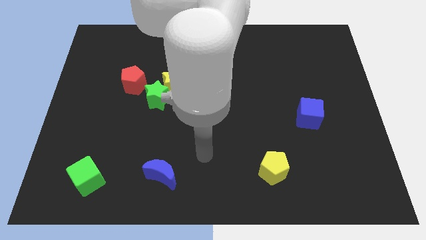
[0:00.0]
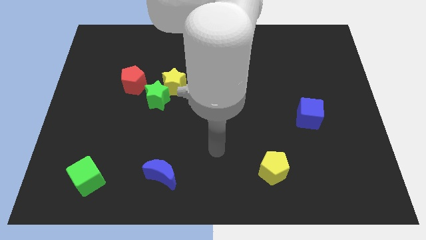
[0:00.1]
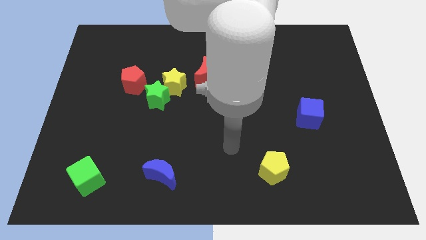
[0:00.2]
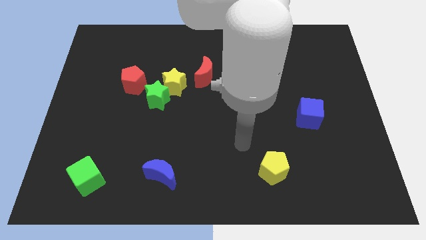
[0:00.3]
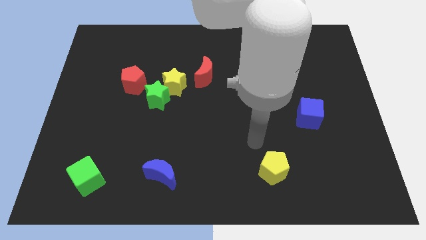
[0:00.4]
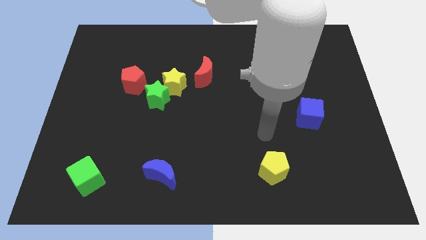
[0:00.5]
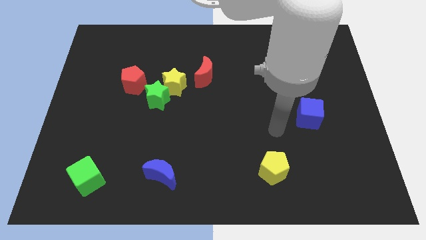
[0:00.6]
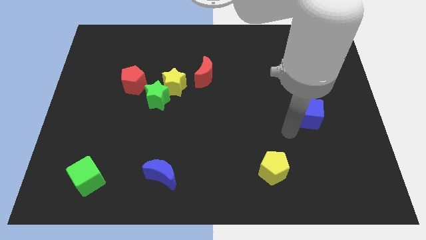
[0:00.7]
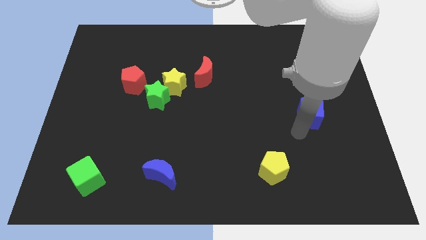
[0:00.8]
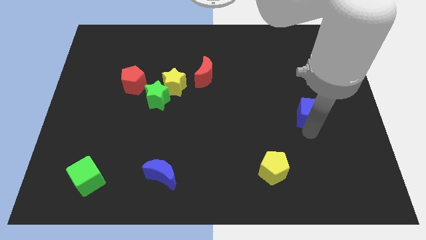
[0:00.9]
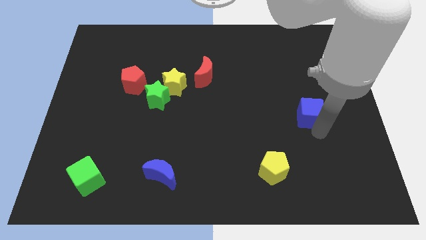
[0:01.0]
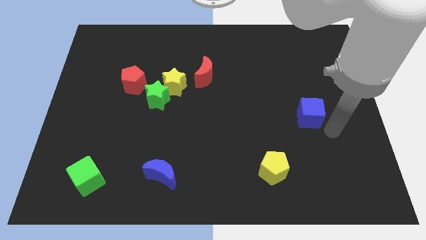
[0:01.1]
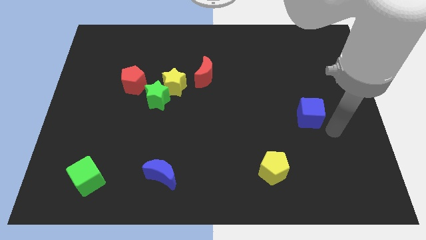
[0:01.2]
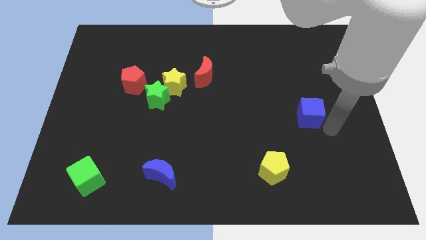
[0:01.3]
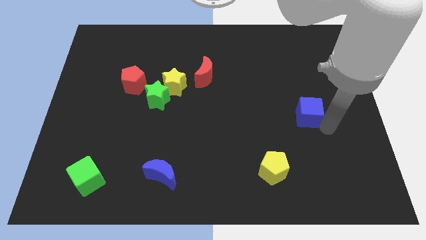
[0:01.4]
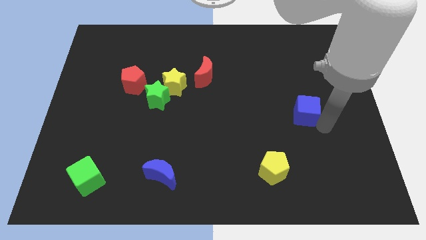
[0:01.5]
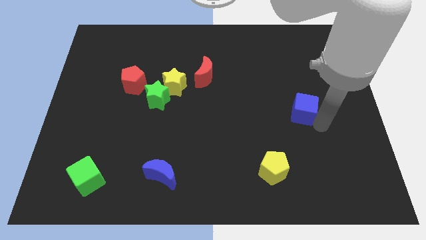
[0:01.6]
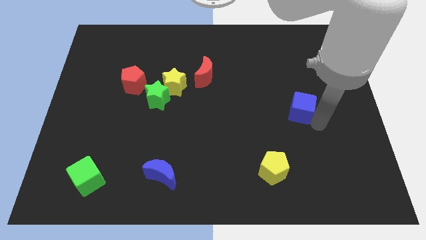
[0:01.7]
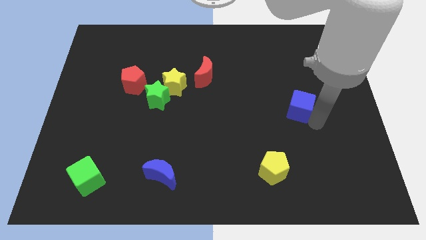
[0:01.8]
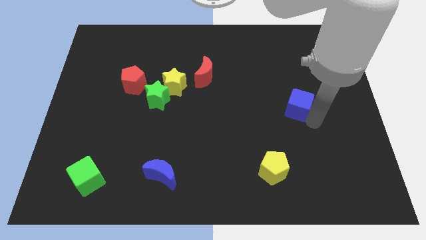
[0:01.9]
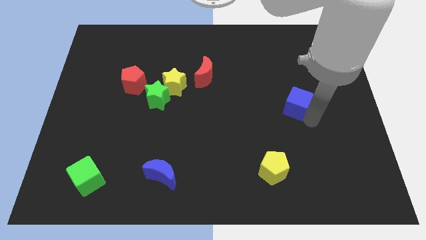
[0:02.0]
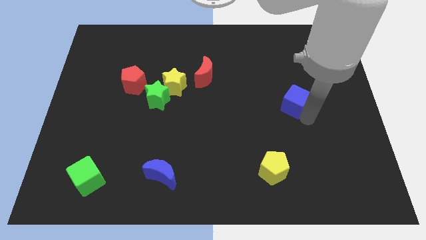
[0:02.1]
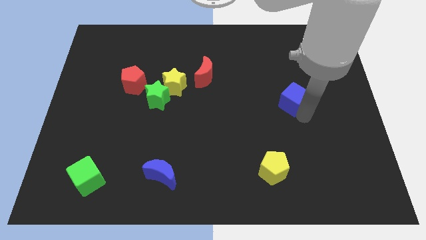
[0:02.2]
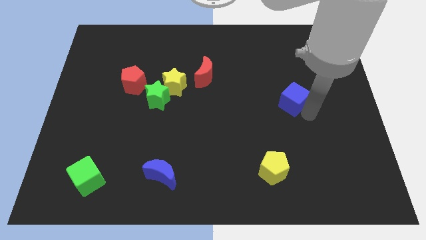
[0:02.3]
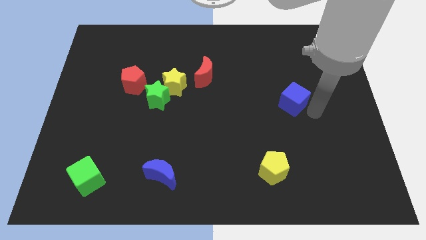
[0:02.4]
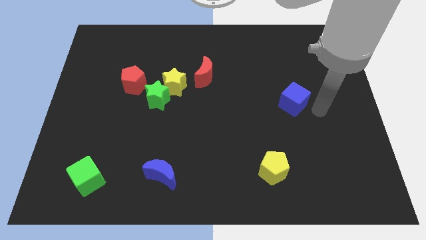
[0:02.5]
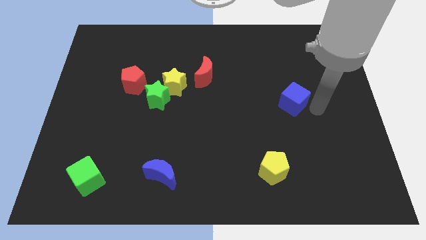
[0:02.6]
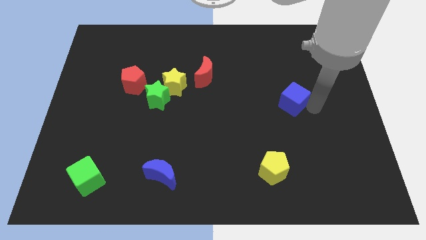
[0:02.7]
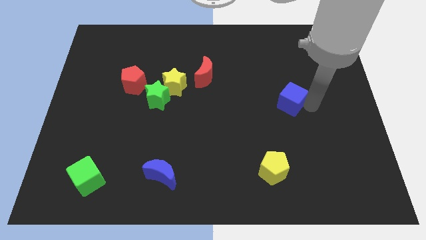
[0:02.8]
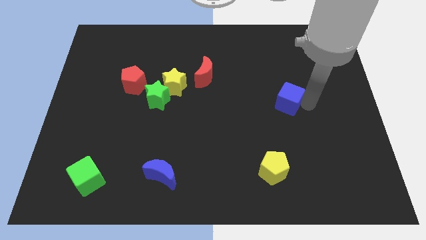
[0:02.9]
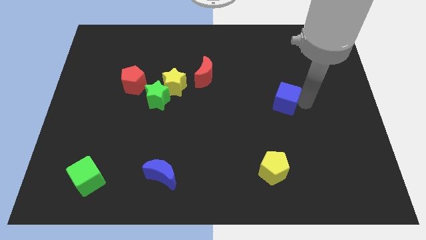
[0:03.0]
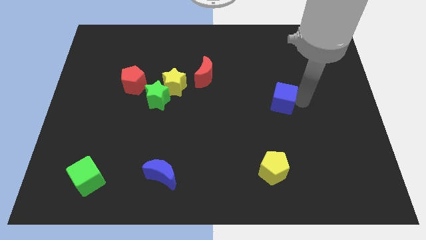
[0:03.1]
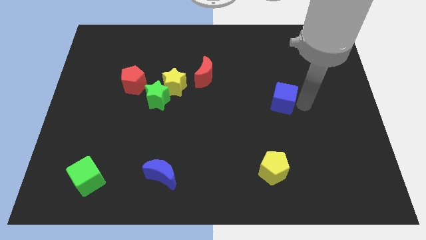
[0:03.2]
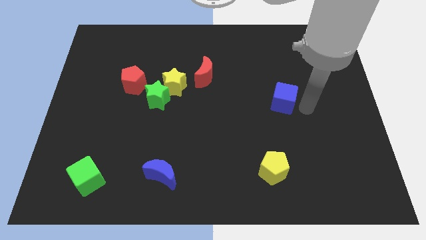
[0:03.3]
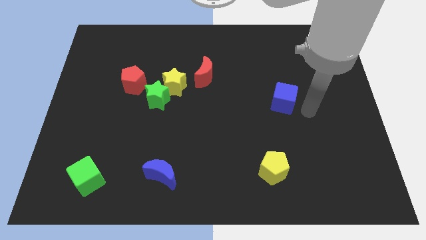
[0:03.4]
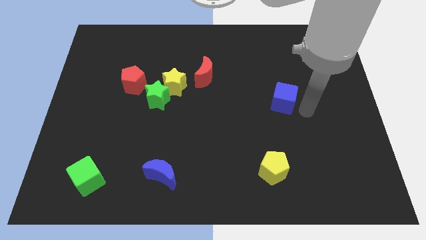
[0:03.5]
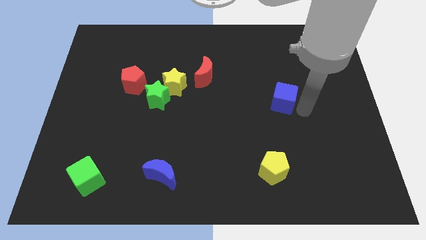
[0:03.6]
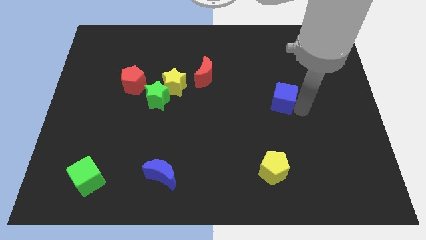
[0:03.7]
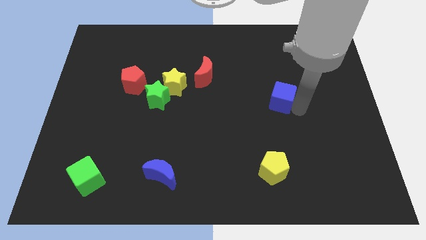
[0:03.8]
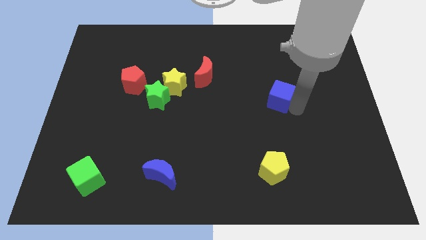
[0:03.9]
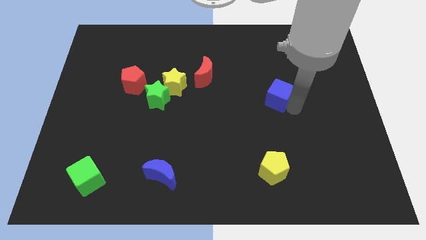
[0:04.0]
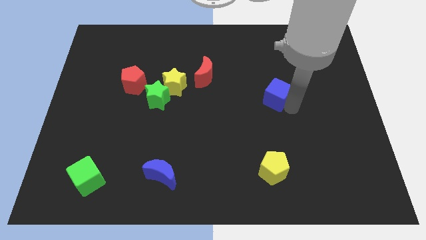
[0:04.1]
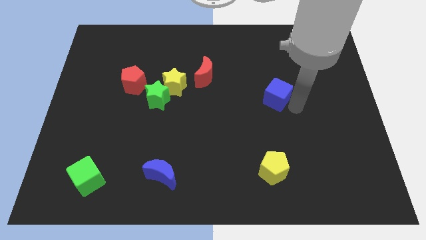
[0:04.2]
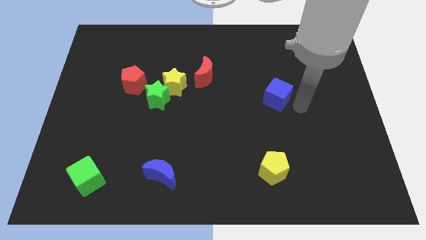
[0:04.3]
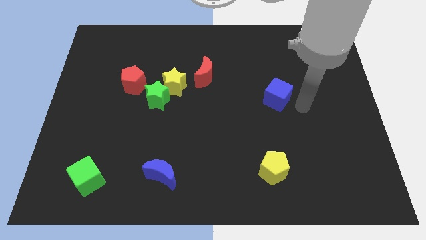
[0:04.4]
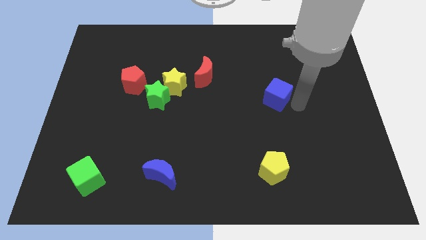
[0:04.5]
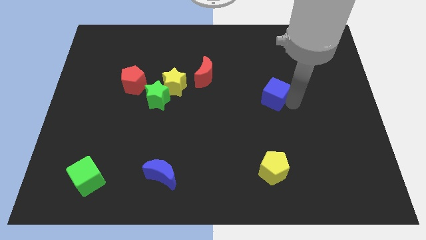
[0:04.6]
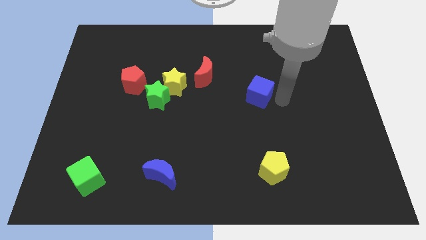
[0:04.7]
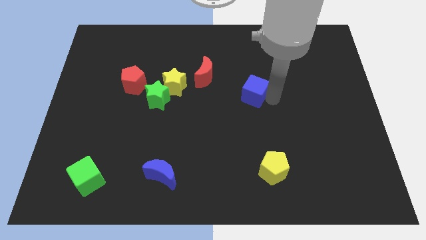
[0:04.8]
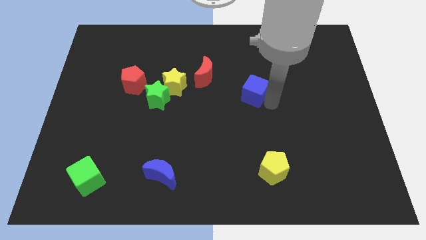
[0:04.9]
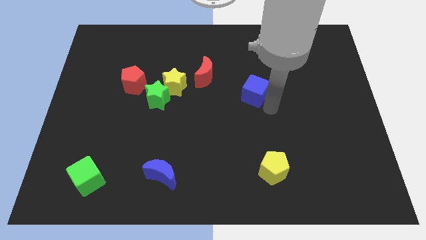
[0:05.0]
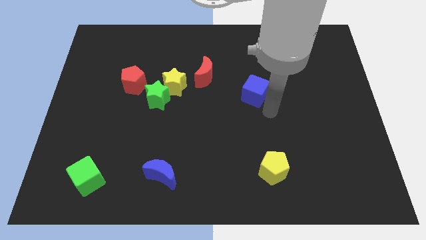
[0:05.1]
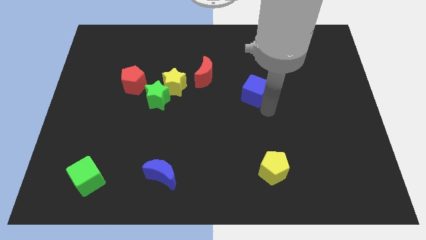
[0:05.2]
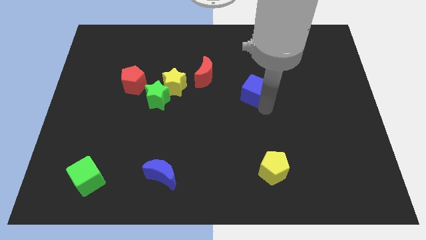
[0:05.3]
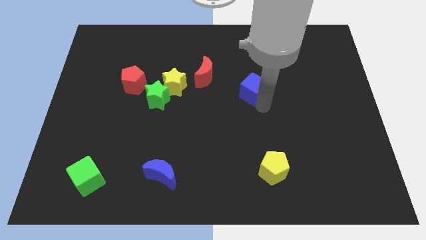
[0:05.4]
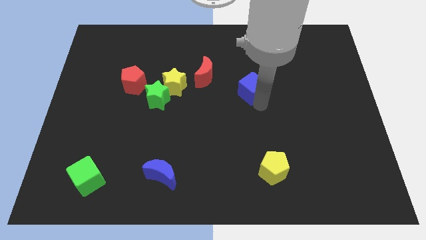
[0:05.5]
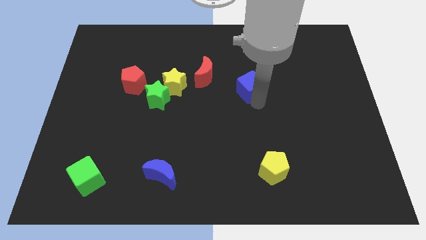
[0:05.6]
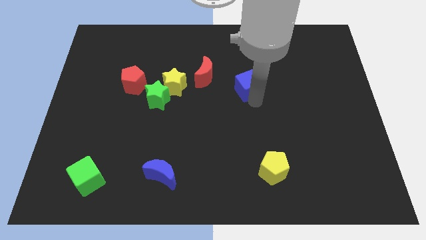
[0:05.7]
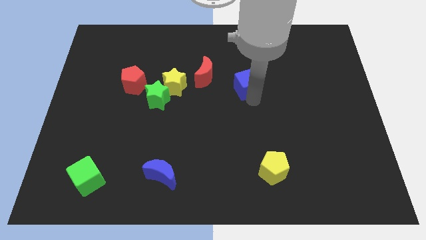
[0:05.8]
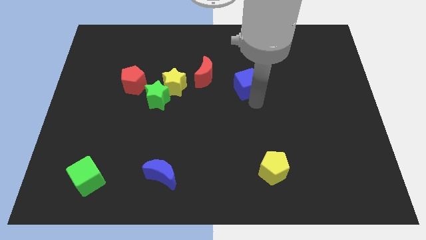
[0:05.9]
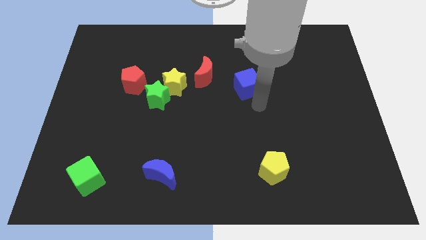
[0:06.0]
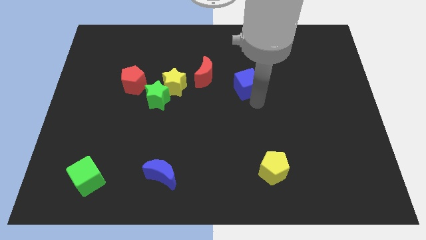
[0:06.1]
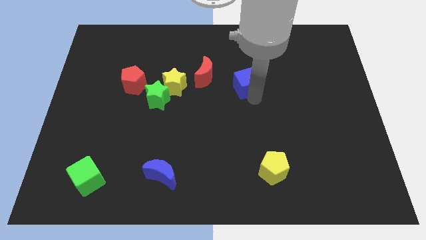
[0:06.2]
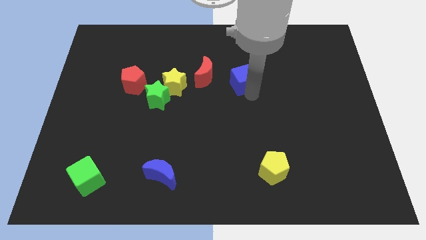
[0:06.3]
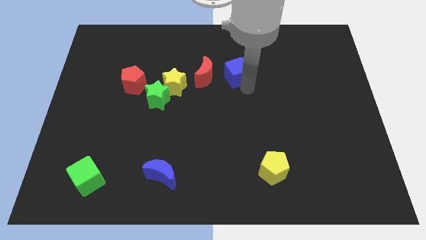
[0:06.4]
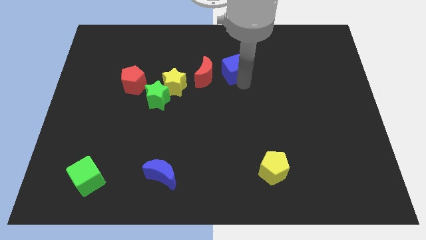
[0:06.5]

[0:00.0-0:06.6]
move the blue cube to the top right of the red moon

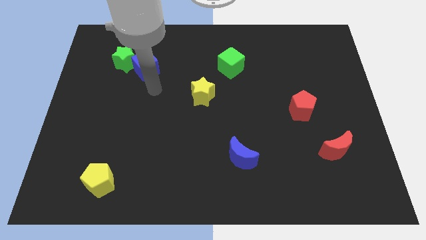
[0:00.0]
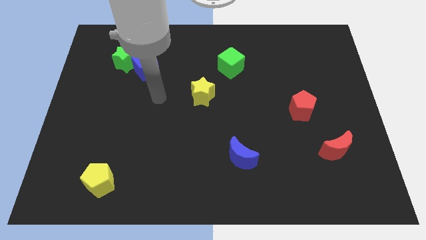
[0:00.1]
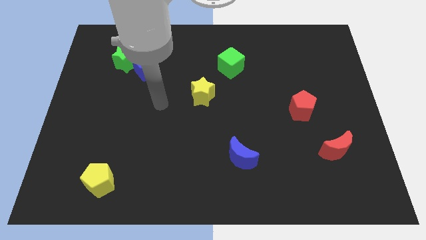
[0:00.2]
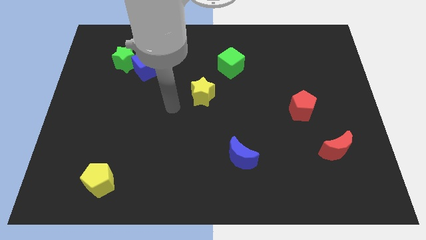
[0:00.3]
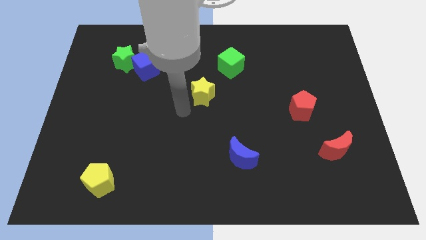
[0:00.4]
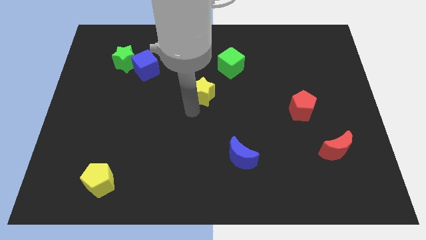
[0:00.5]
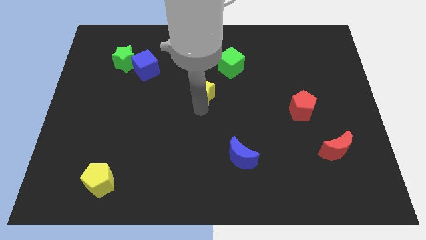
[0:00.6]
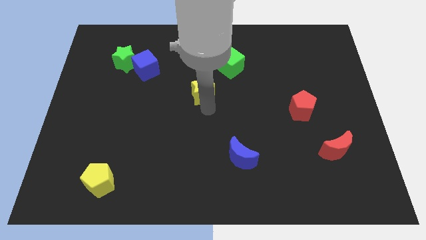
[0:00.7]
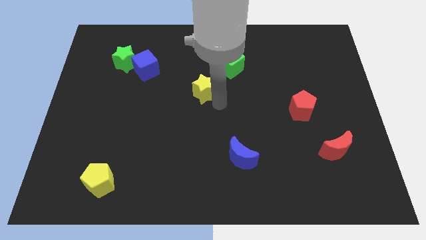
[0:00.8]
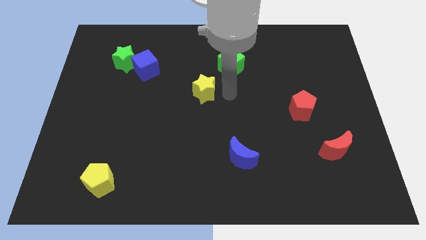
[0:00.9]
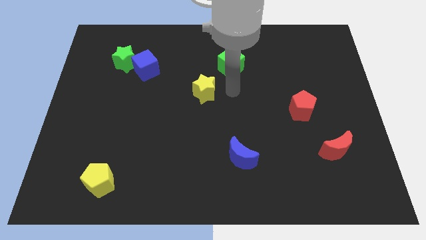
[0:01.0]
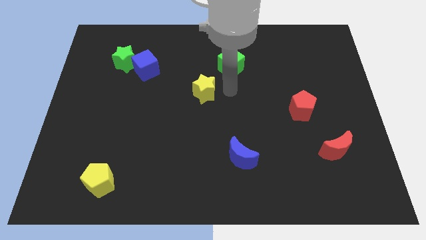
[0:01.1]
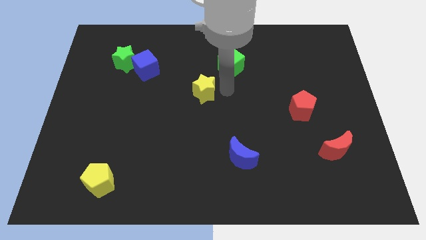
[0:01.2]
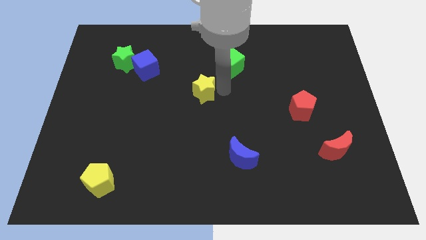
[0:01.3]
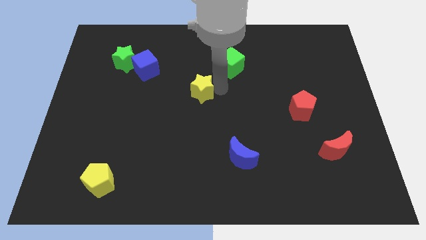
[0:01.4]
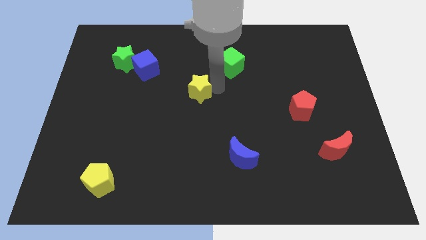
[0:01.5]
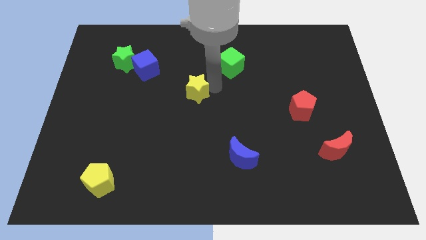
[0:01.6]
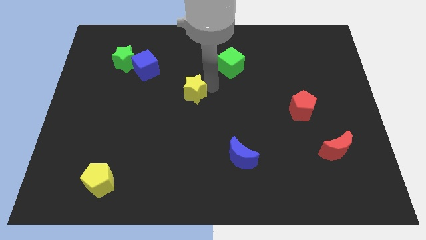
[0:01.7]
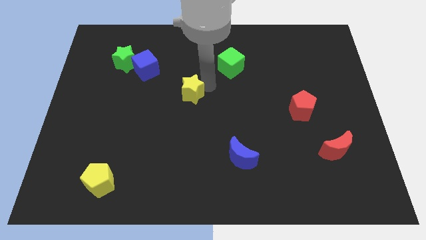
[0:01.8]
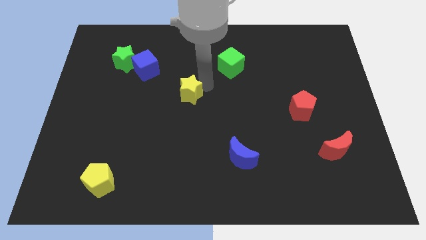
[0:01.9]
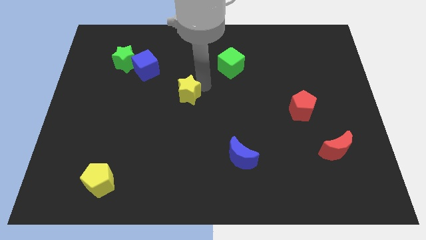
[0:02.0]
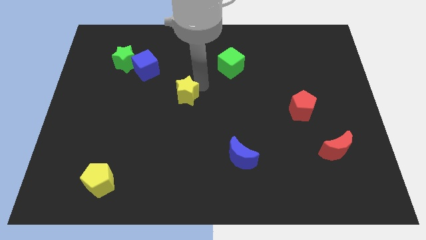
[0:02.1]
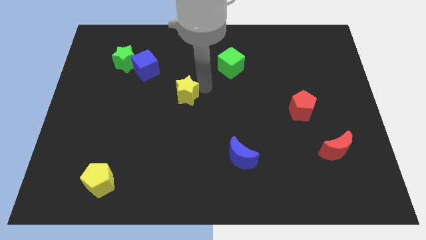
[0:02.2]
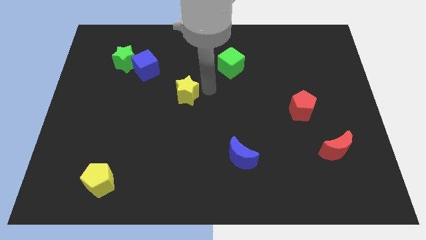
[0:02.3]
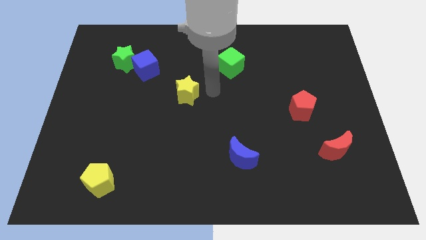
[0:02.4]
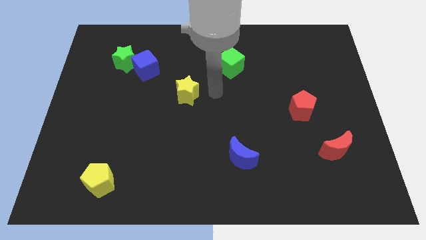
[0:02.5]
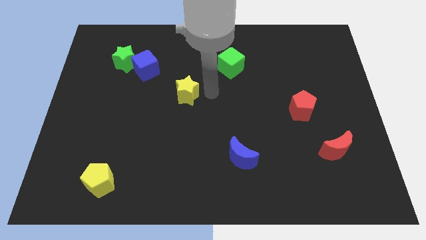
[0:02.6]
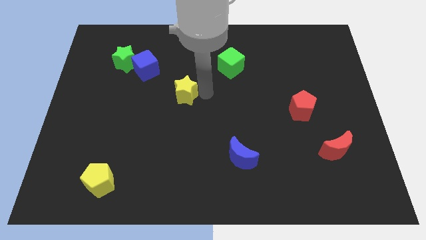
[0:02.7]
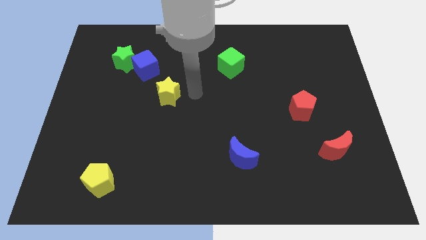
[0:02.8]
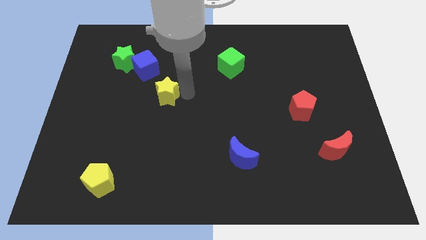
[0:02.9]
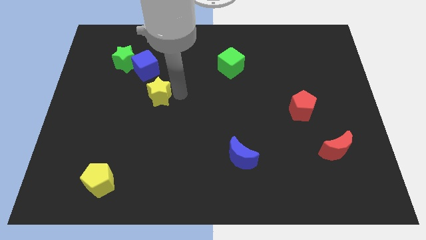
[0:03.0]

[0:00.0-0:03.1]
push the yellow star to the bottom side of the blue cube
